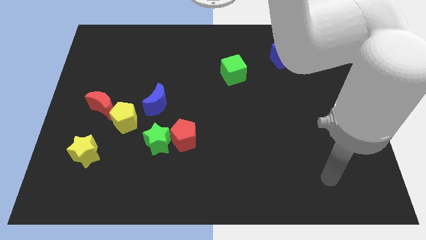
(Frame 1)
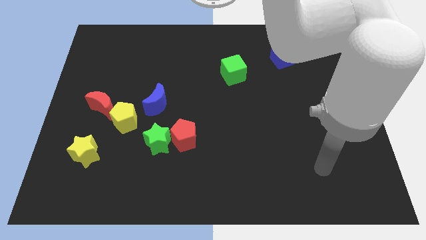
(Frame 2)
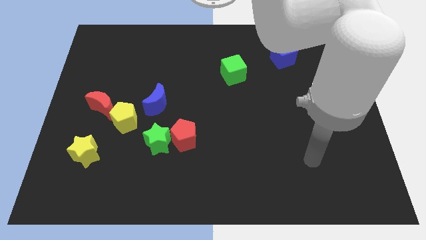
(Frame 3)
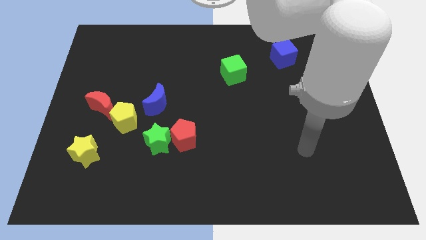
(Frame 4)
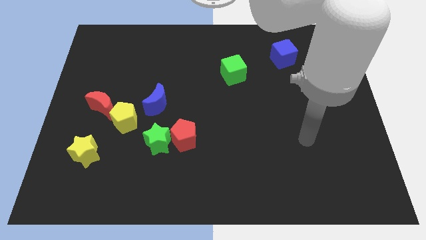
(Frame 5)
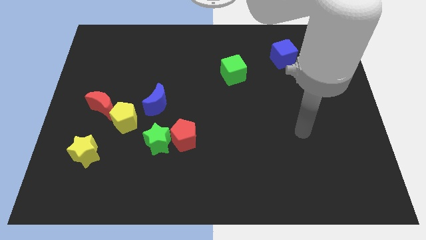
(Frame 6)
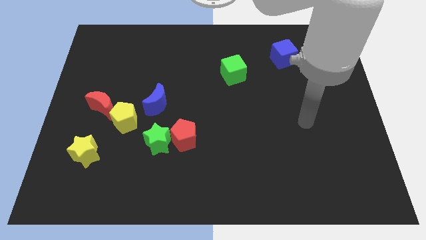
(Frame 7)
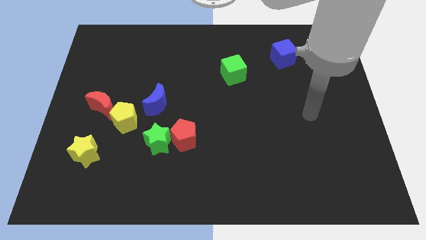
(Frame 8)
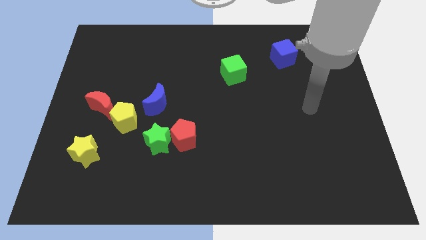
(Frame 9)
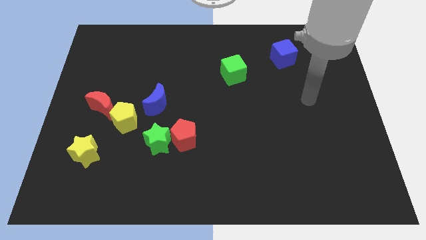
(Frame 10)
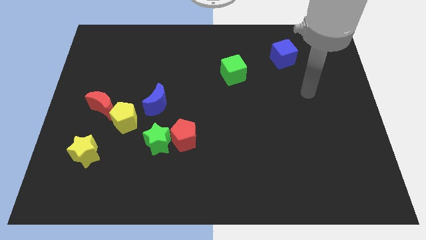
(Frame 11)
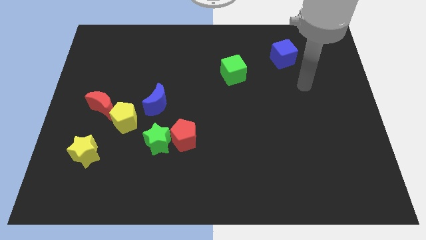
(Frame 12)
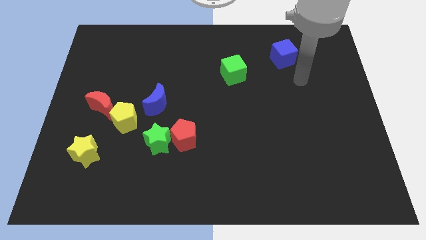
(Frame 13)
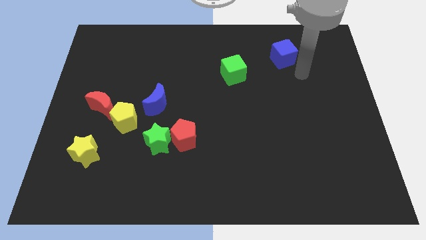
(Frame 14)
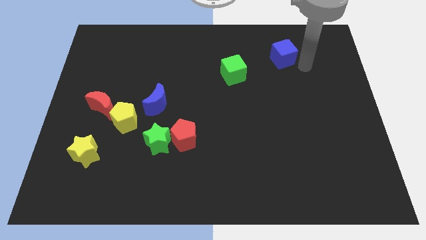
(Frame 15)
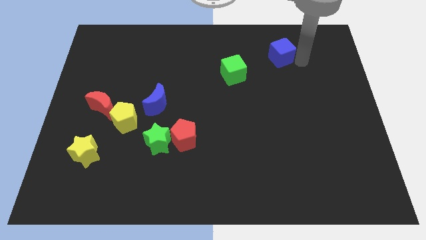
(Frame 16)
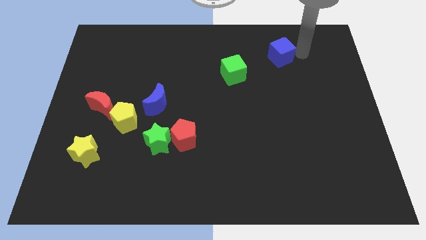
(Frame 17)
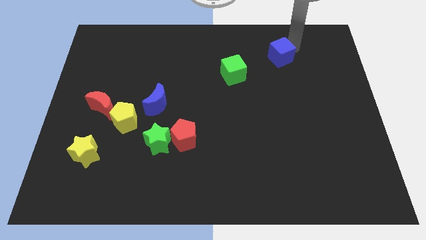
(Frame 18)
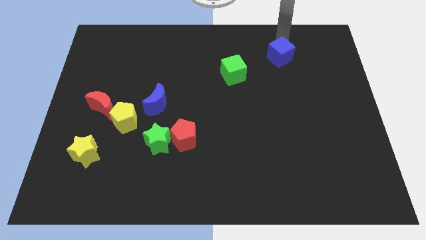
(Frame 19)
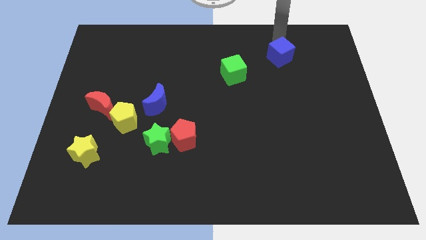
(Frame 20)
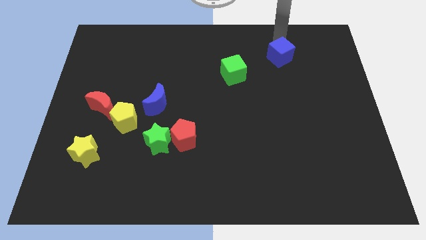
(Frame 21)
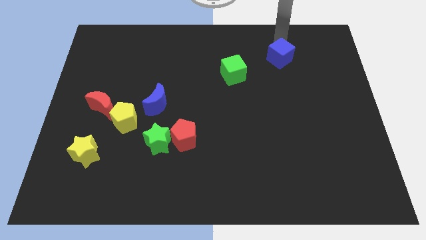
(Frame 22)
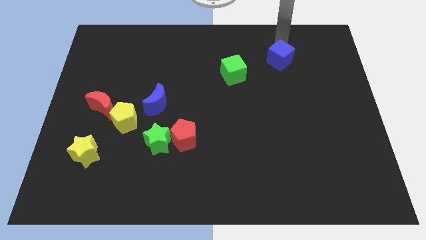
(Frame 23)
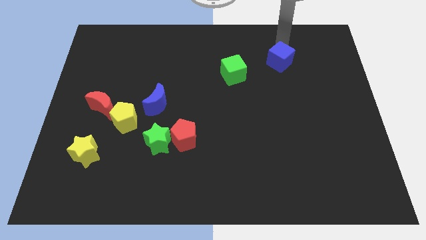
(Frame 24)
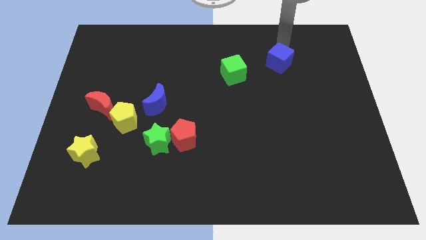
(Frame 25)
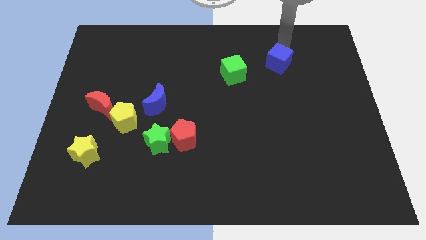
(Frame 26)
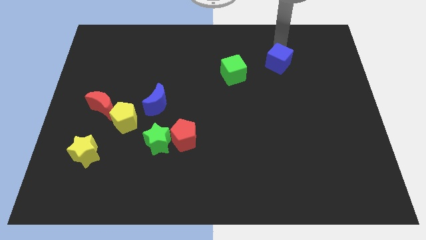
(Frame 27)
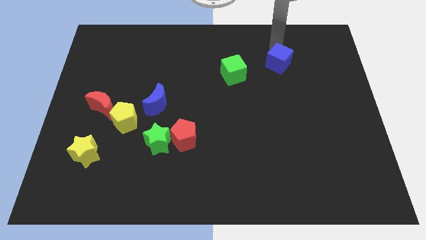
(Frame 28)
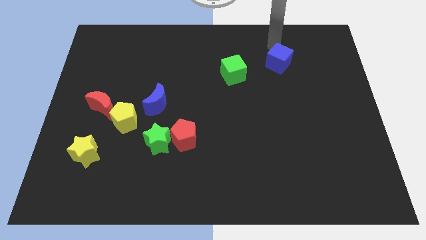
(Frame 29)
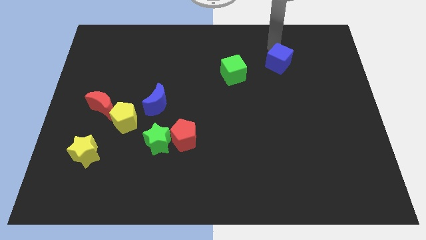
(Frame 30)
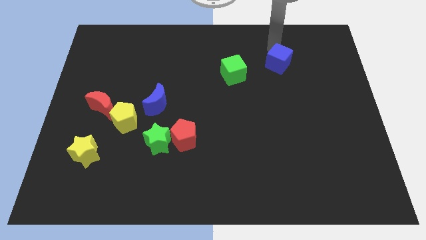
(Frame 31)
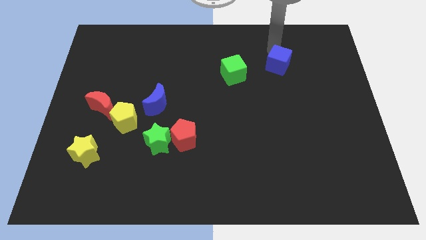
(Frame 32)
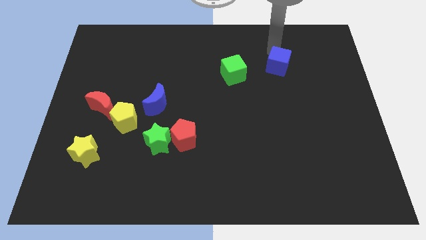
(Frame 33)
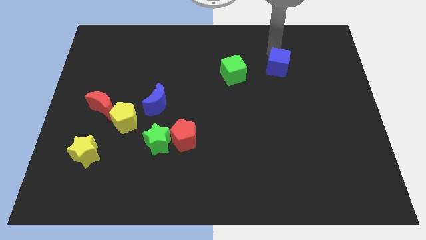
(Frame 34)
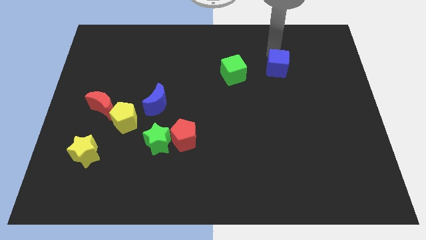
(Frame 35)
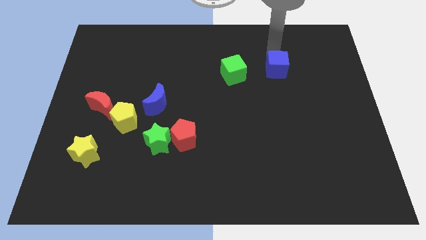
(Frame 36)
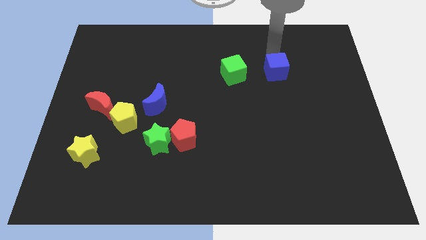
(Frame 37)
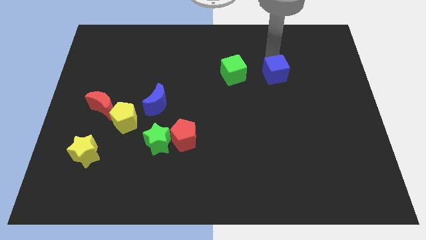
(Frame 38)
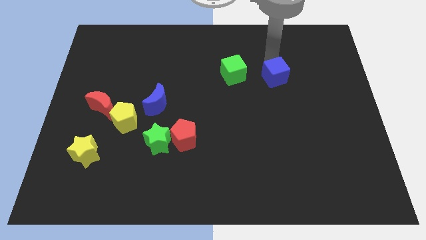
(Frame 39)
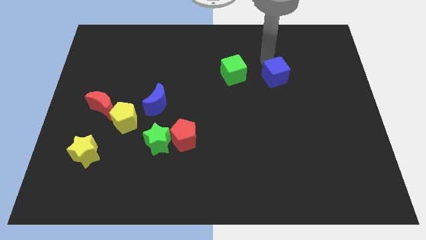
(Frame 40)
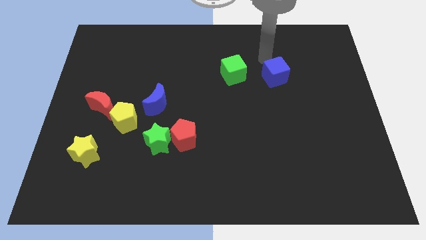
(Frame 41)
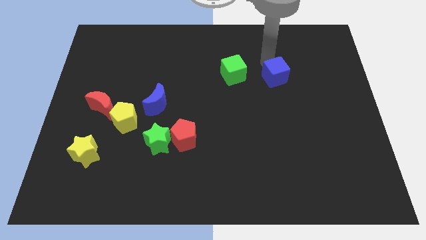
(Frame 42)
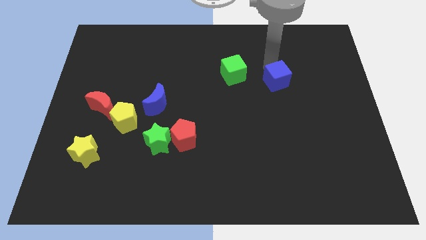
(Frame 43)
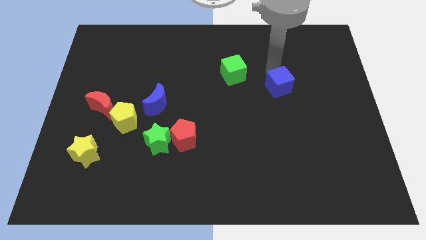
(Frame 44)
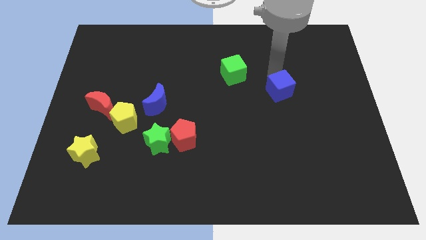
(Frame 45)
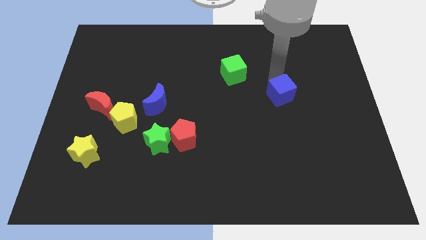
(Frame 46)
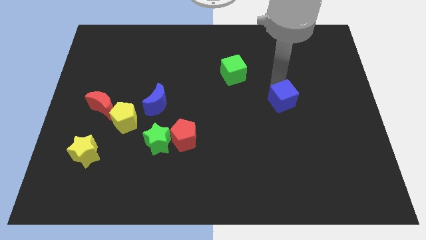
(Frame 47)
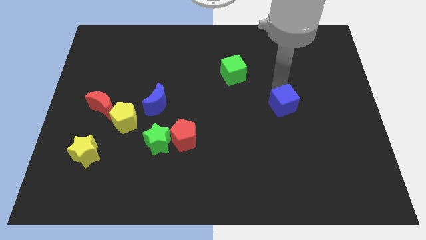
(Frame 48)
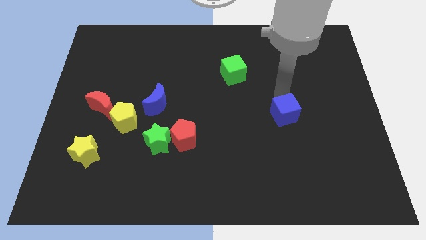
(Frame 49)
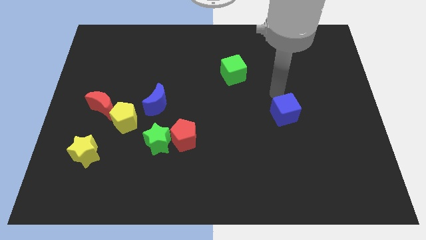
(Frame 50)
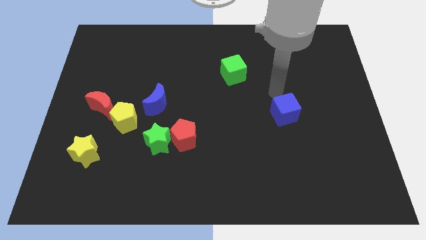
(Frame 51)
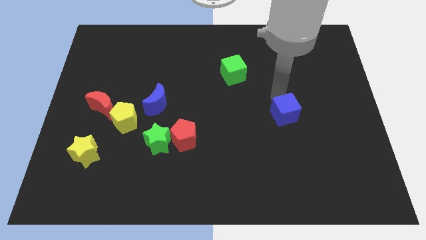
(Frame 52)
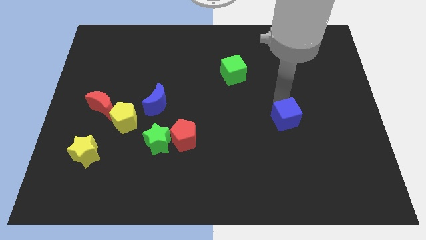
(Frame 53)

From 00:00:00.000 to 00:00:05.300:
move the blue cube downwards

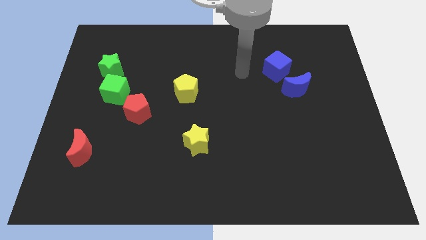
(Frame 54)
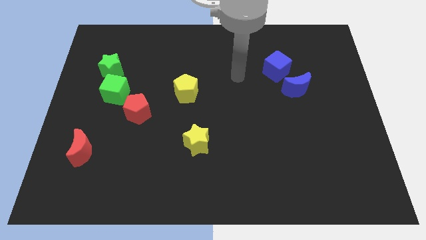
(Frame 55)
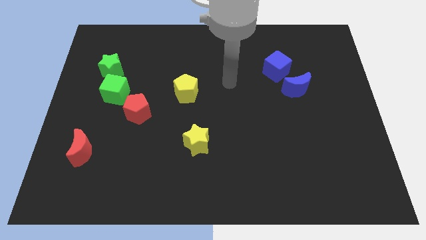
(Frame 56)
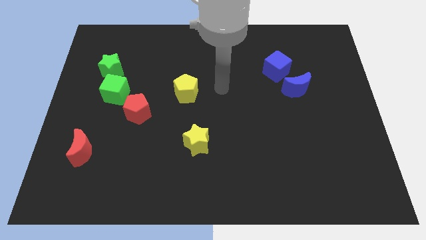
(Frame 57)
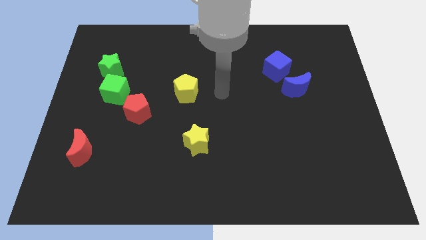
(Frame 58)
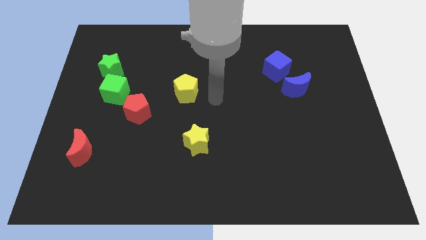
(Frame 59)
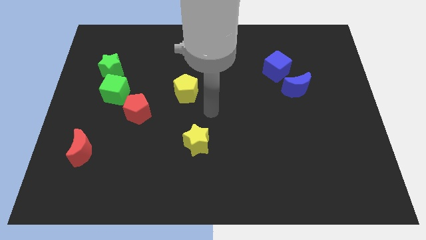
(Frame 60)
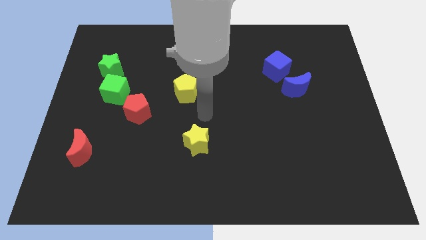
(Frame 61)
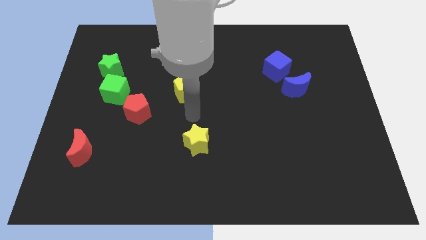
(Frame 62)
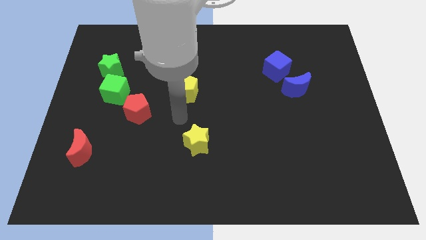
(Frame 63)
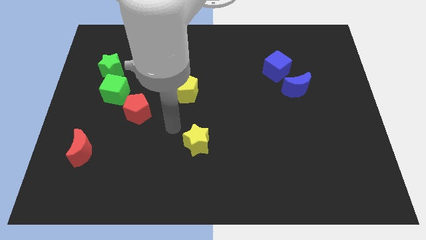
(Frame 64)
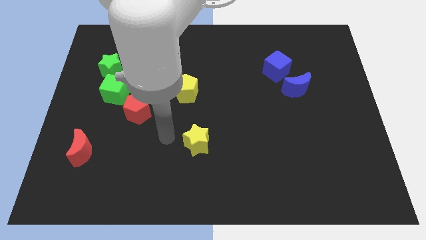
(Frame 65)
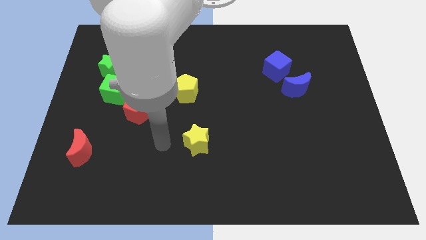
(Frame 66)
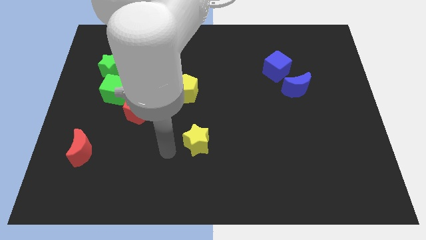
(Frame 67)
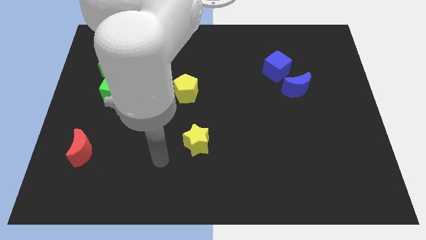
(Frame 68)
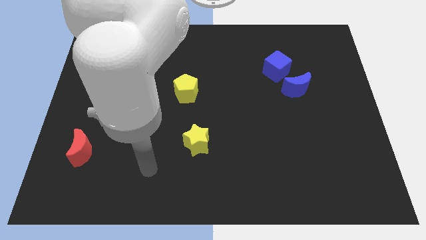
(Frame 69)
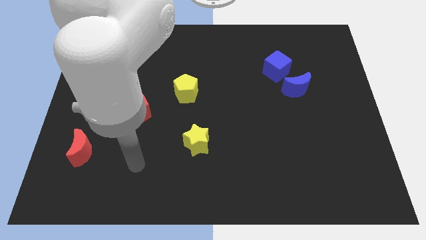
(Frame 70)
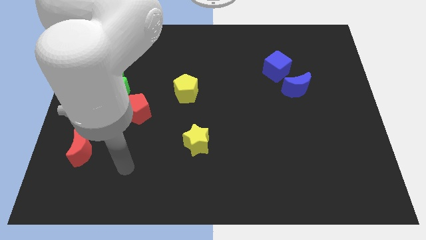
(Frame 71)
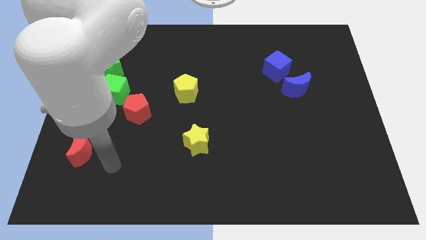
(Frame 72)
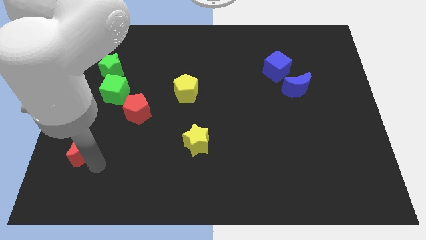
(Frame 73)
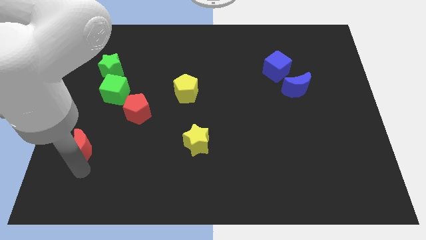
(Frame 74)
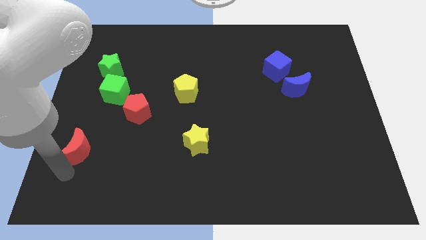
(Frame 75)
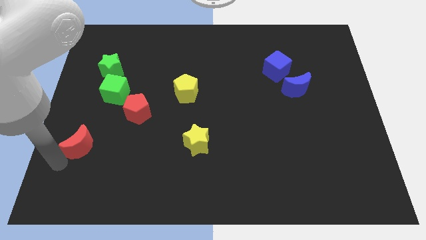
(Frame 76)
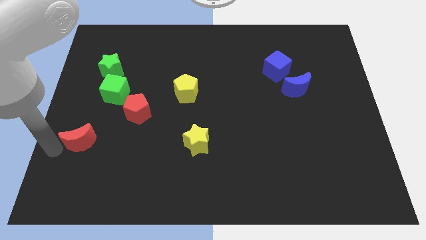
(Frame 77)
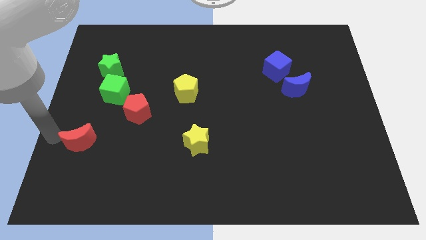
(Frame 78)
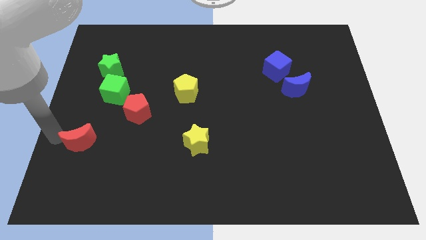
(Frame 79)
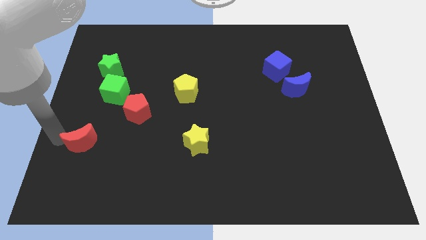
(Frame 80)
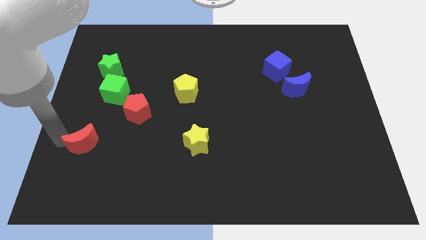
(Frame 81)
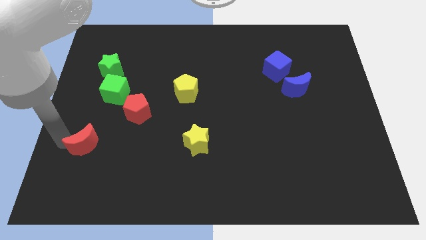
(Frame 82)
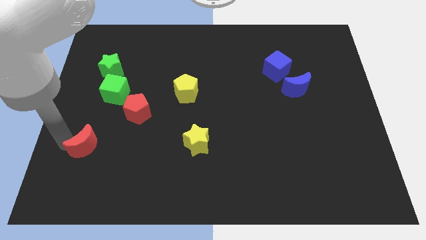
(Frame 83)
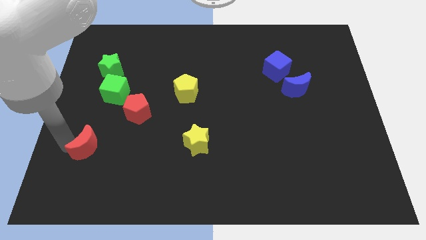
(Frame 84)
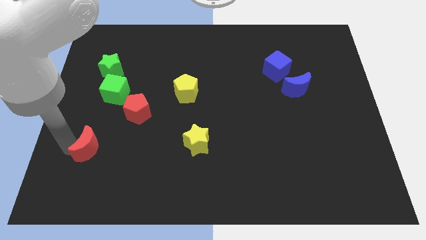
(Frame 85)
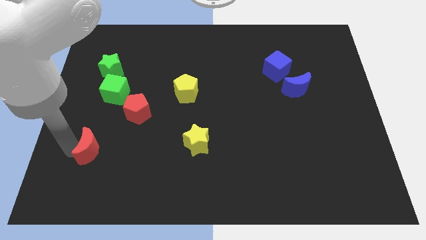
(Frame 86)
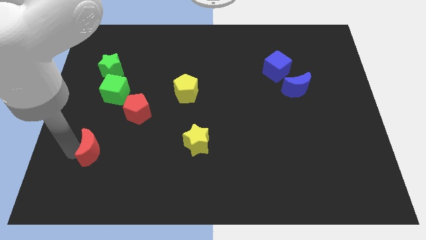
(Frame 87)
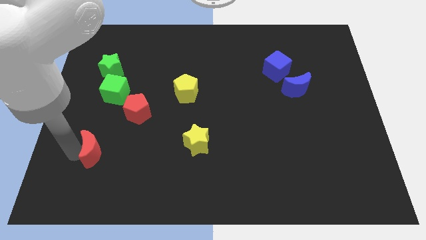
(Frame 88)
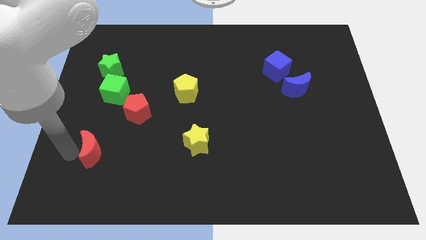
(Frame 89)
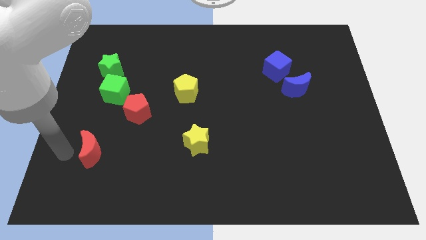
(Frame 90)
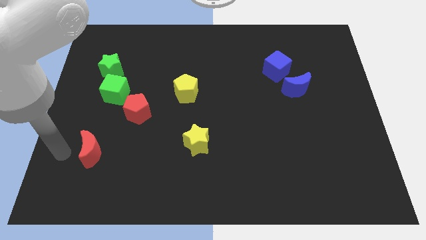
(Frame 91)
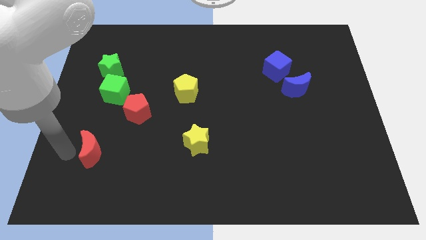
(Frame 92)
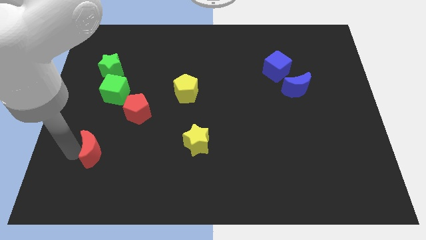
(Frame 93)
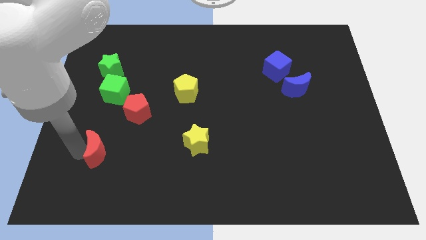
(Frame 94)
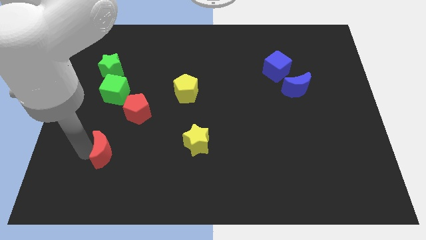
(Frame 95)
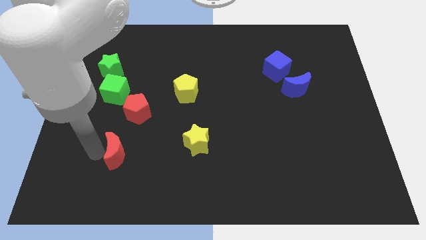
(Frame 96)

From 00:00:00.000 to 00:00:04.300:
slightly push the red moon to the right
